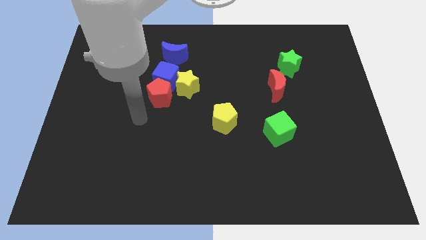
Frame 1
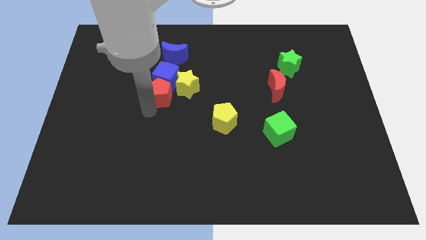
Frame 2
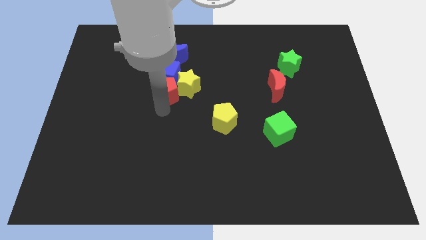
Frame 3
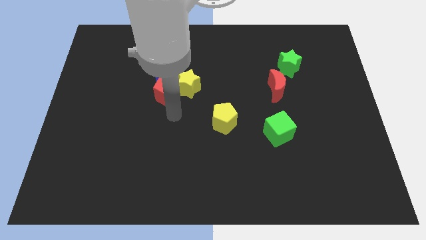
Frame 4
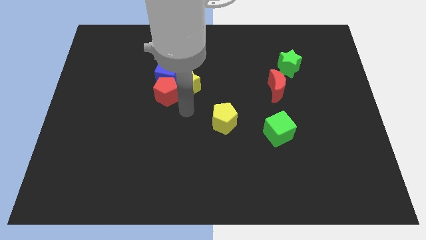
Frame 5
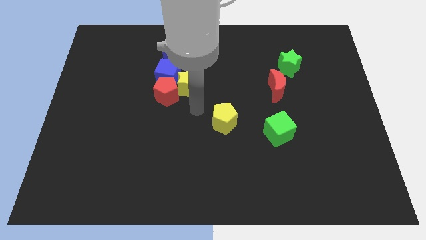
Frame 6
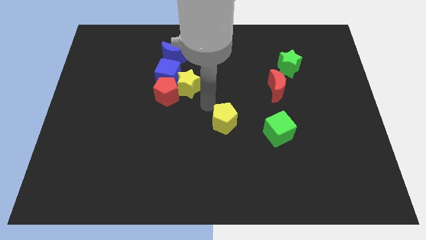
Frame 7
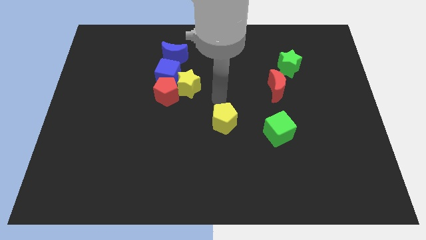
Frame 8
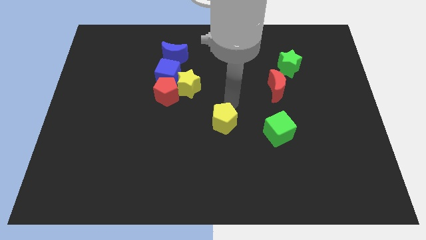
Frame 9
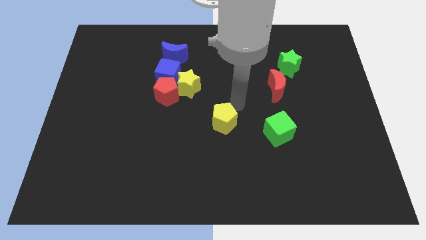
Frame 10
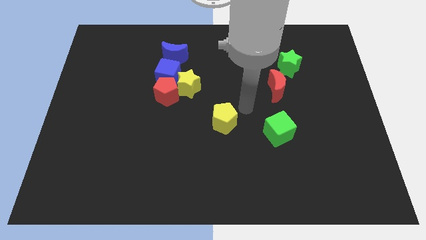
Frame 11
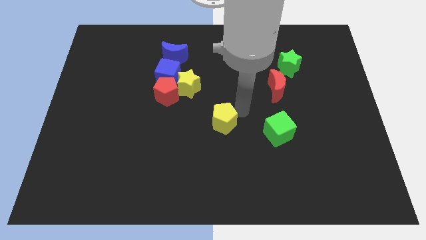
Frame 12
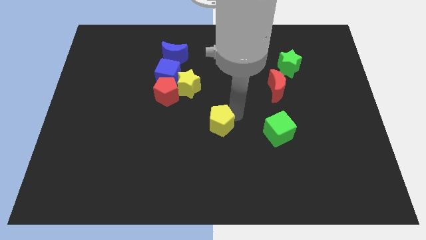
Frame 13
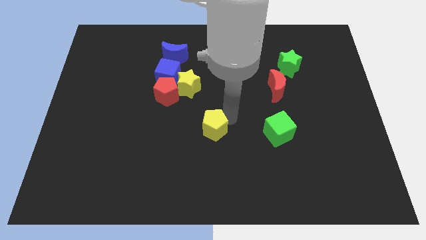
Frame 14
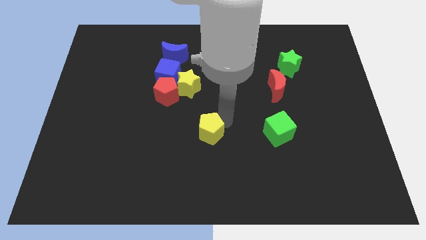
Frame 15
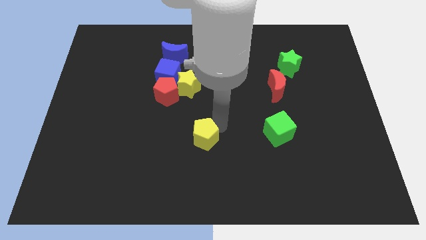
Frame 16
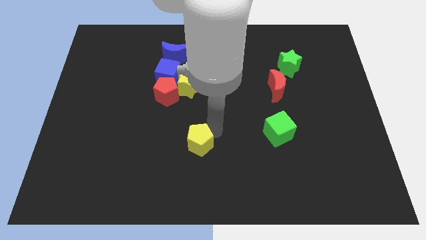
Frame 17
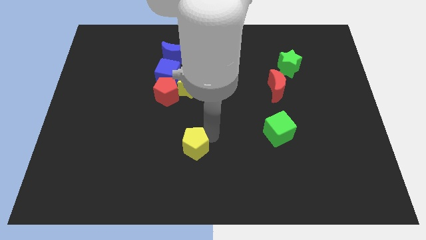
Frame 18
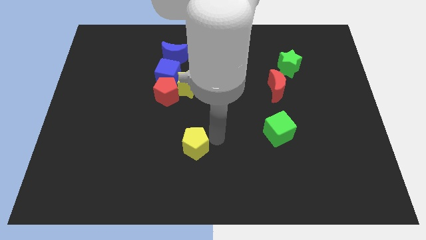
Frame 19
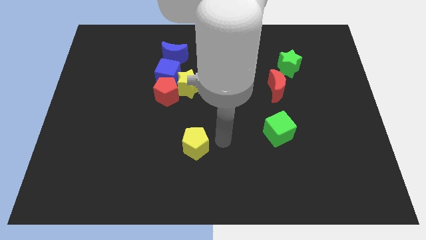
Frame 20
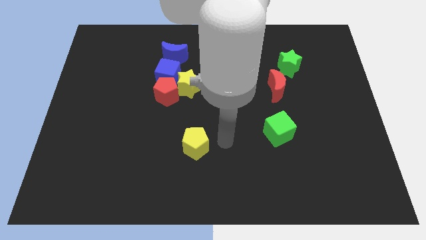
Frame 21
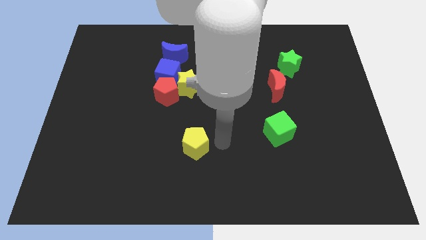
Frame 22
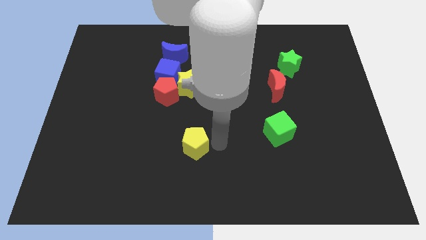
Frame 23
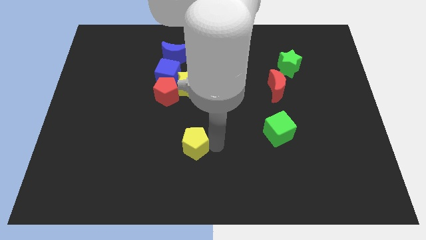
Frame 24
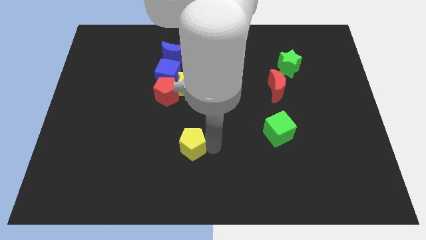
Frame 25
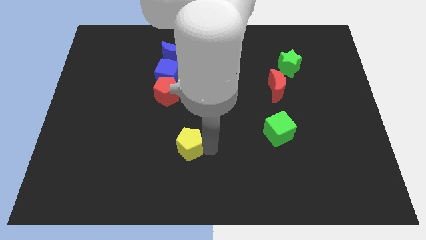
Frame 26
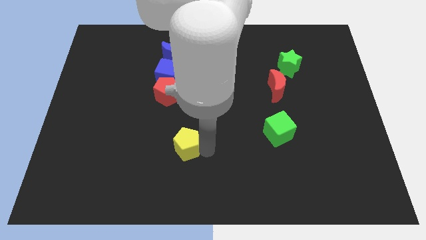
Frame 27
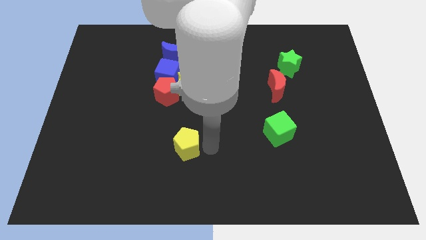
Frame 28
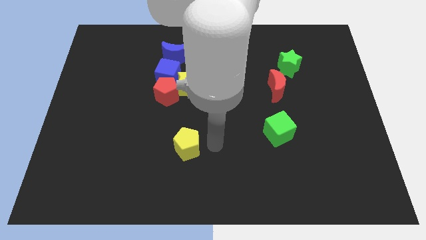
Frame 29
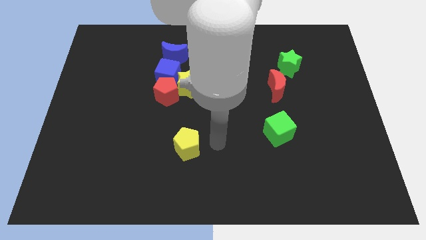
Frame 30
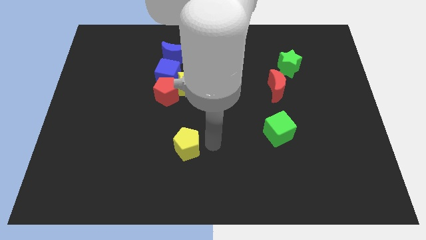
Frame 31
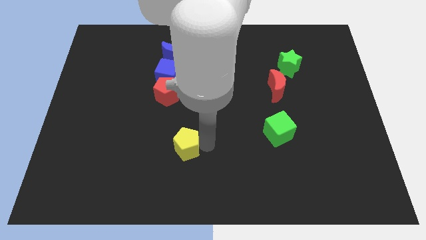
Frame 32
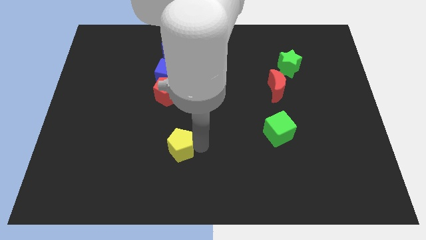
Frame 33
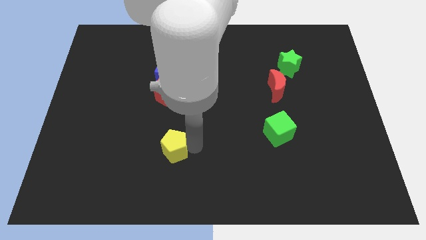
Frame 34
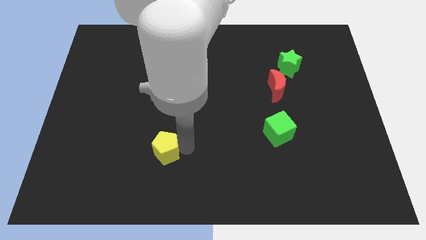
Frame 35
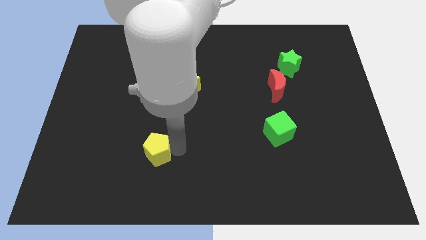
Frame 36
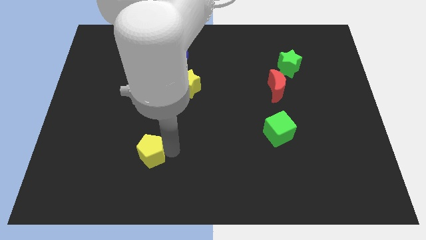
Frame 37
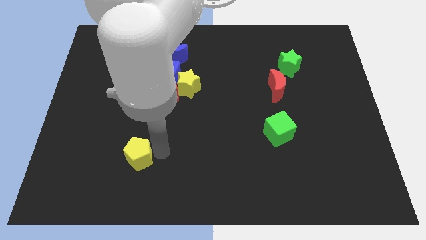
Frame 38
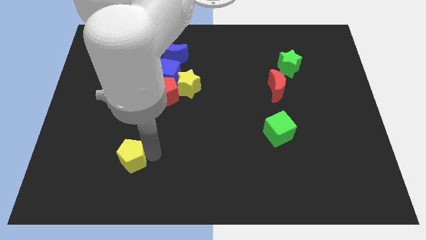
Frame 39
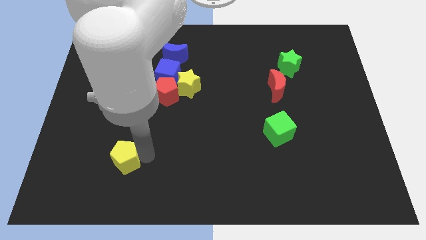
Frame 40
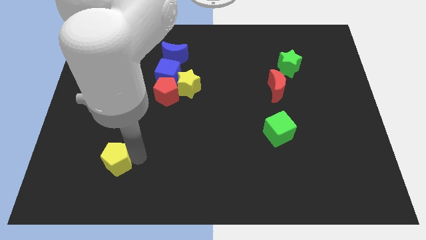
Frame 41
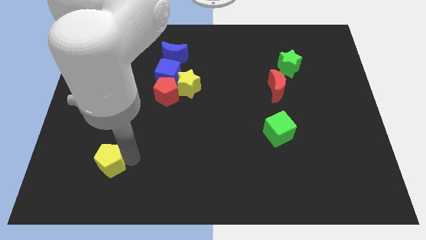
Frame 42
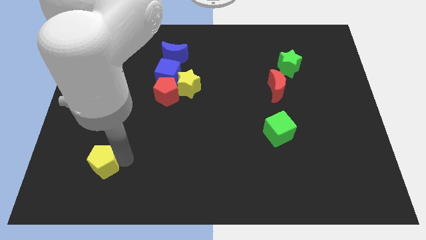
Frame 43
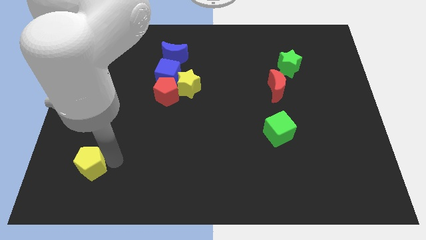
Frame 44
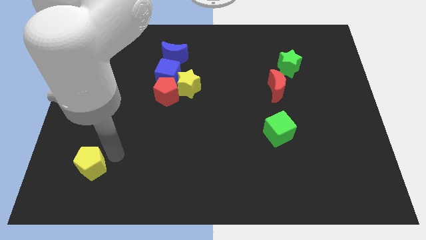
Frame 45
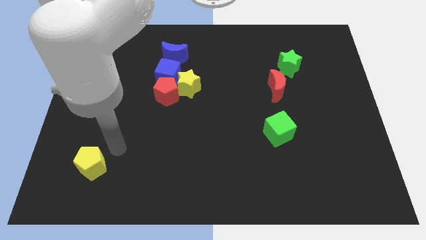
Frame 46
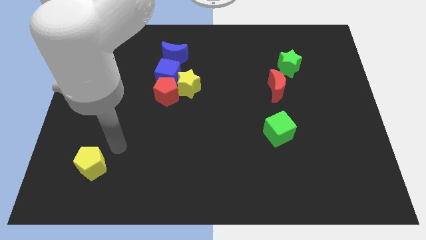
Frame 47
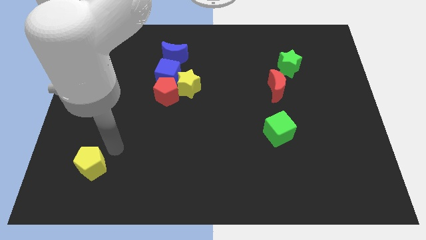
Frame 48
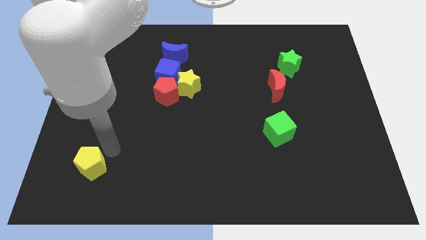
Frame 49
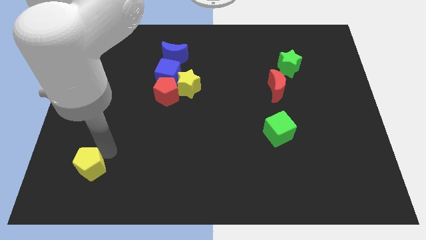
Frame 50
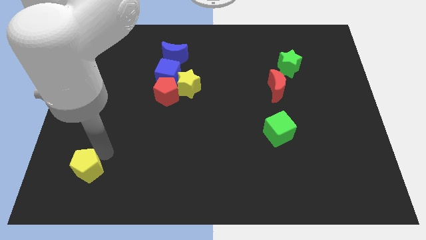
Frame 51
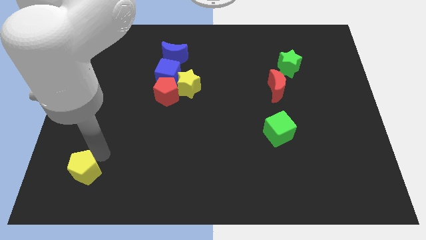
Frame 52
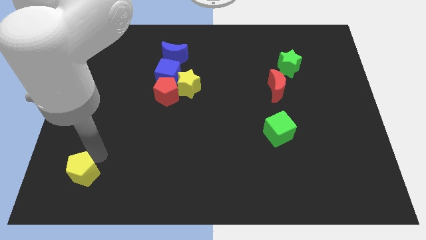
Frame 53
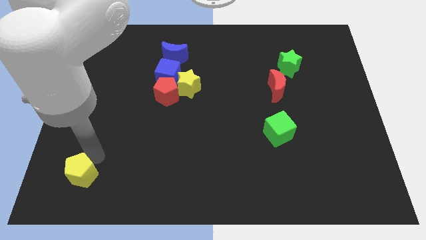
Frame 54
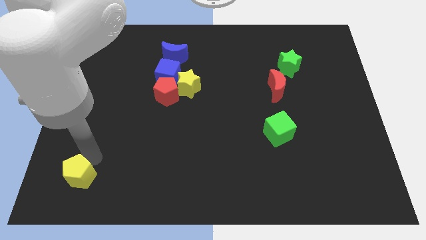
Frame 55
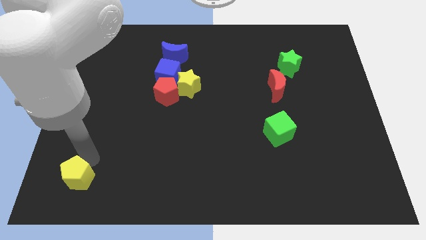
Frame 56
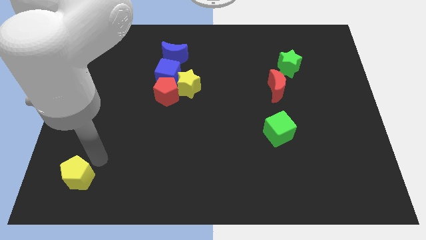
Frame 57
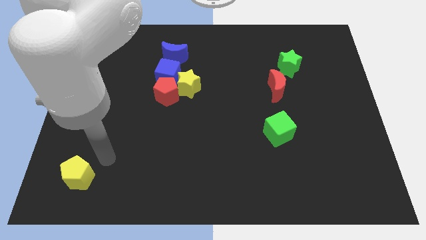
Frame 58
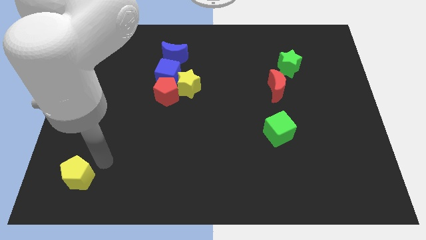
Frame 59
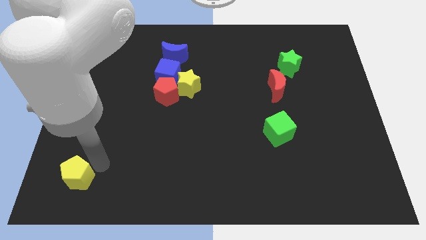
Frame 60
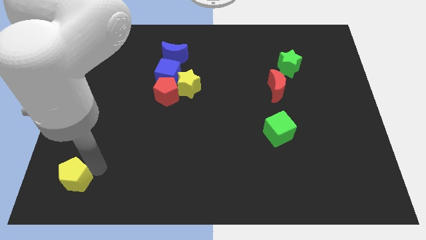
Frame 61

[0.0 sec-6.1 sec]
push the yellow pentagon to the bottom left corner

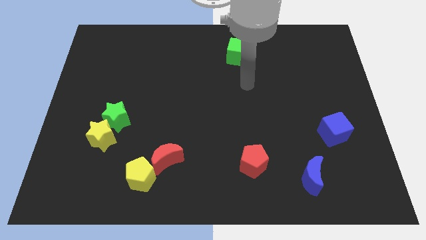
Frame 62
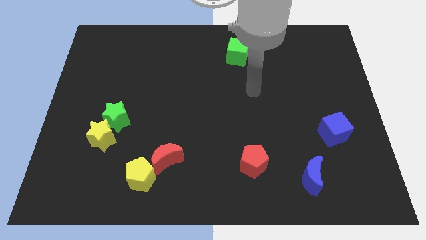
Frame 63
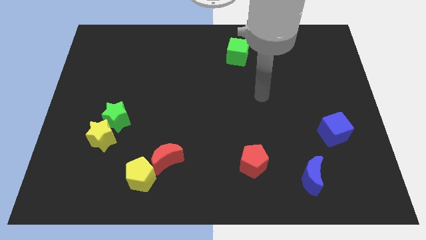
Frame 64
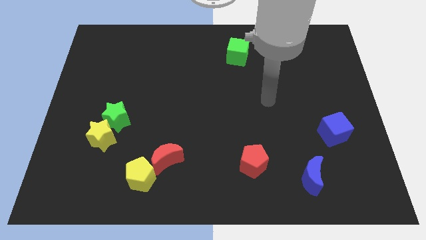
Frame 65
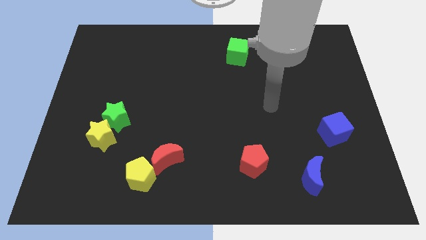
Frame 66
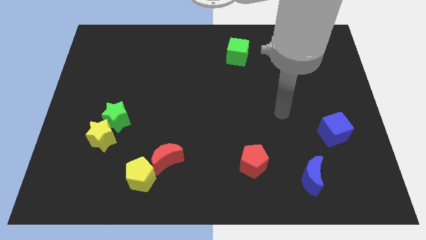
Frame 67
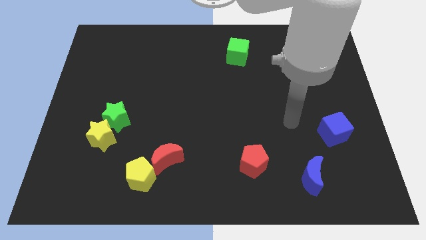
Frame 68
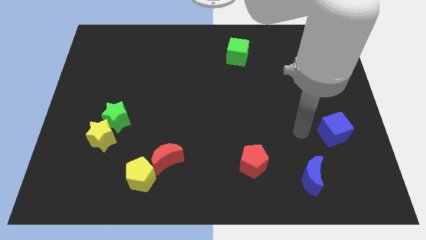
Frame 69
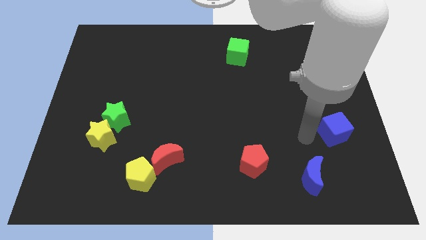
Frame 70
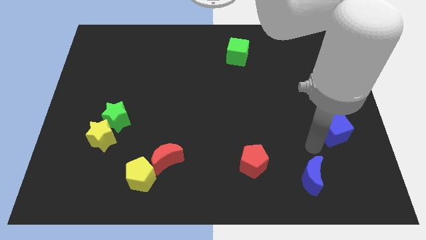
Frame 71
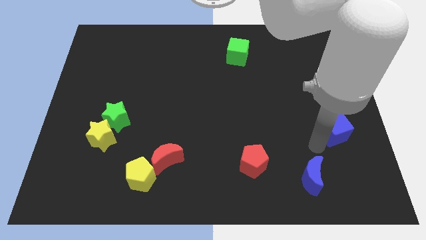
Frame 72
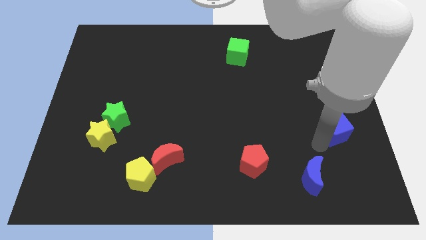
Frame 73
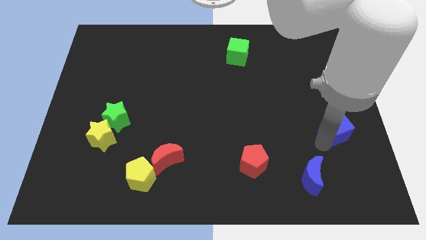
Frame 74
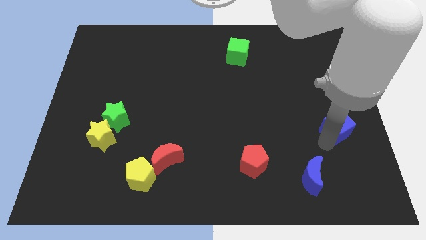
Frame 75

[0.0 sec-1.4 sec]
move the blue cube to the right side
